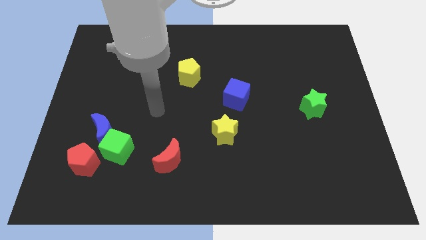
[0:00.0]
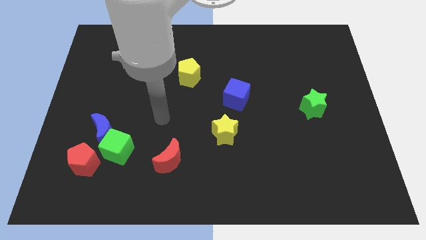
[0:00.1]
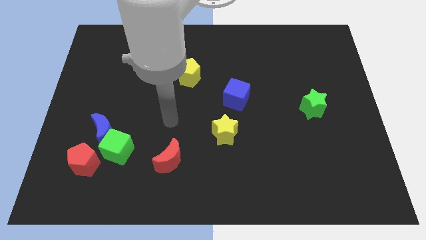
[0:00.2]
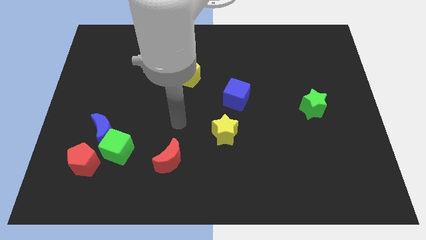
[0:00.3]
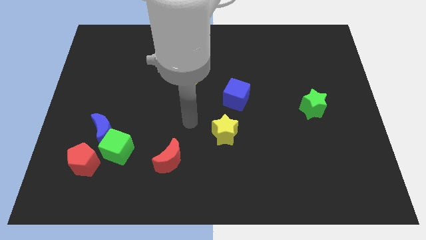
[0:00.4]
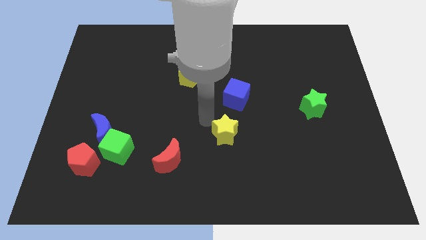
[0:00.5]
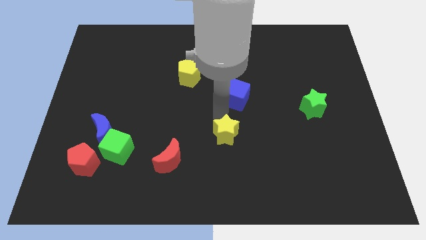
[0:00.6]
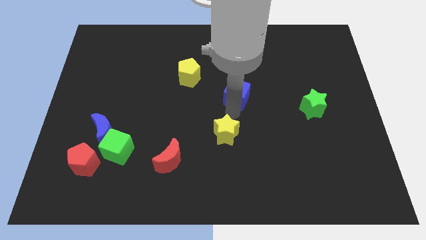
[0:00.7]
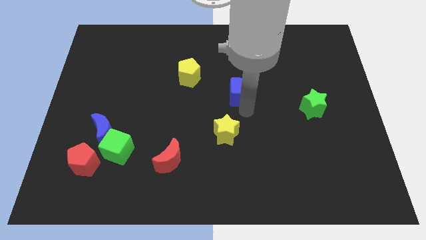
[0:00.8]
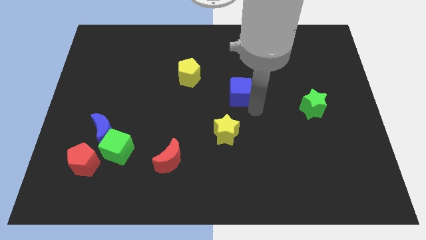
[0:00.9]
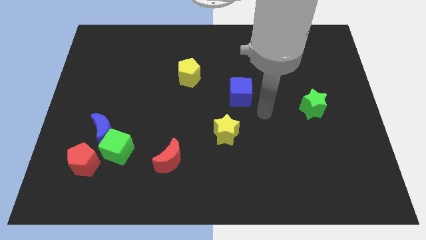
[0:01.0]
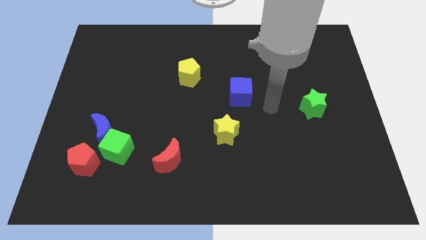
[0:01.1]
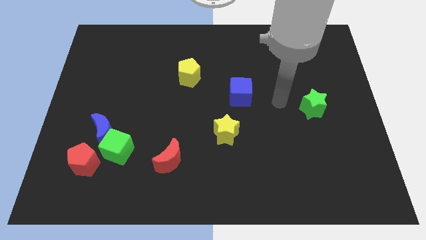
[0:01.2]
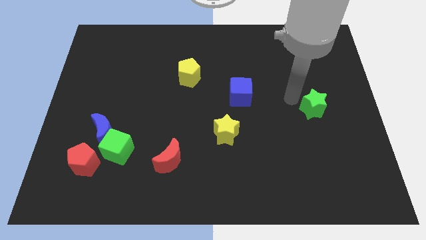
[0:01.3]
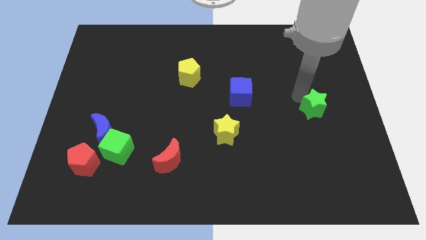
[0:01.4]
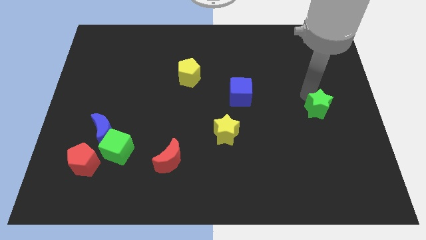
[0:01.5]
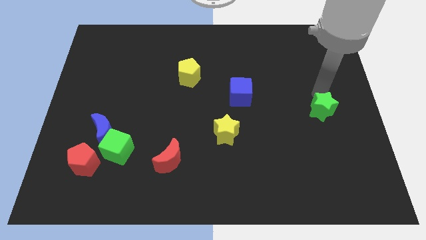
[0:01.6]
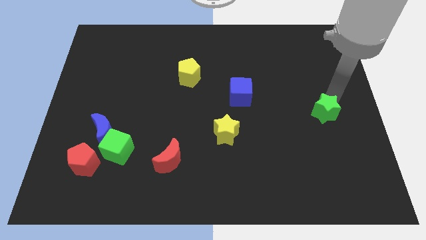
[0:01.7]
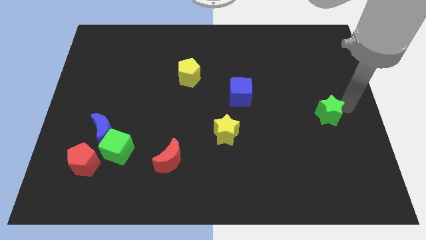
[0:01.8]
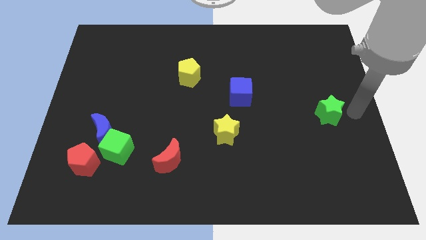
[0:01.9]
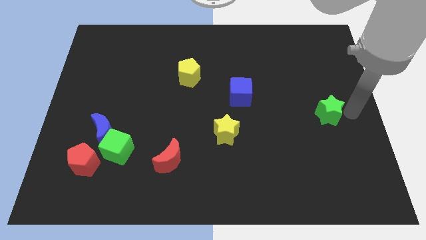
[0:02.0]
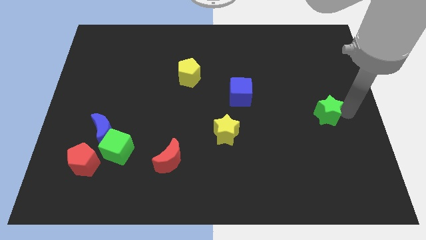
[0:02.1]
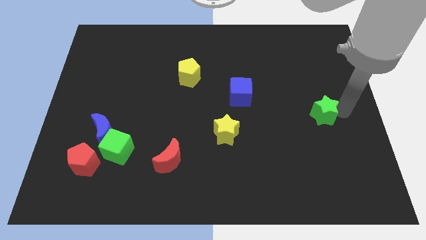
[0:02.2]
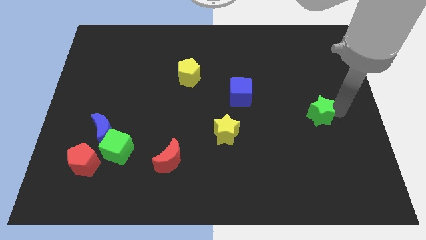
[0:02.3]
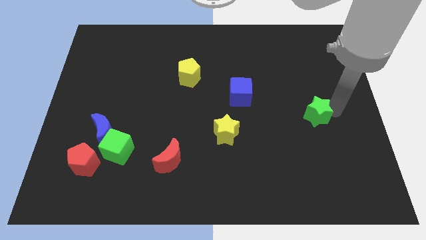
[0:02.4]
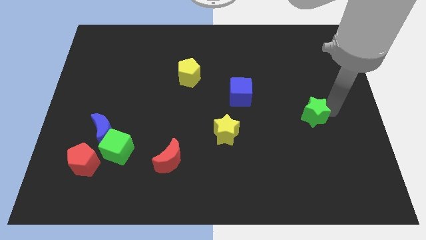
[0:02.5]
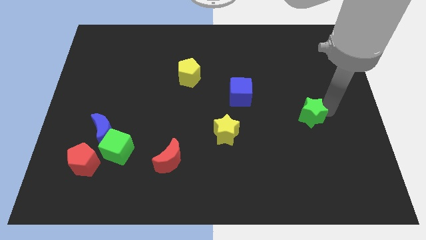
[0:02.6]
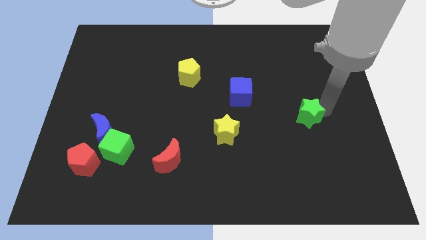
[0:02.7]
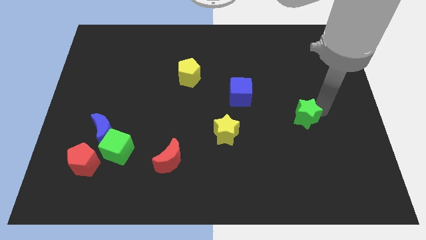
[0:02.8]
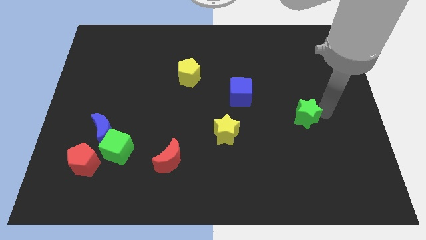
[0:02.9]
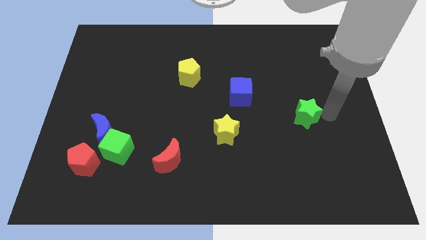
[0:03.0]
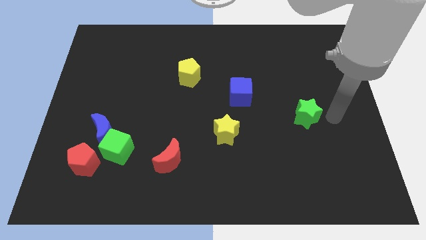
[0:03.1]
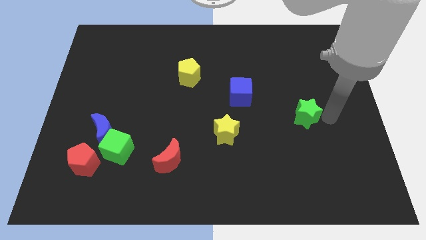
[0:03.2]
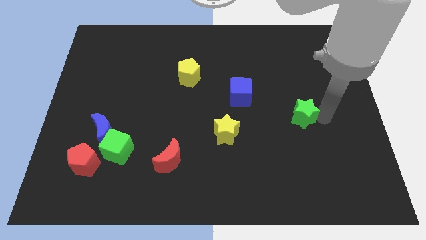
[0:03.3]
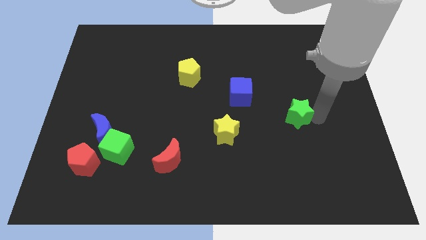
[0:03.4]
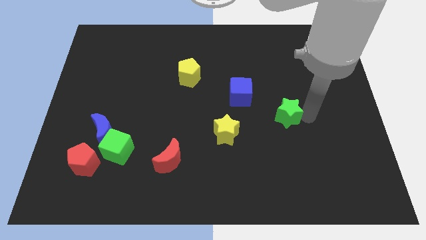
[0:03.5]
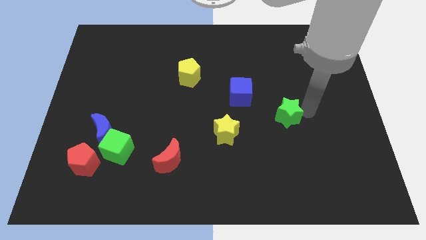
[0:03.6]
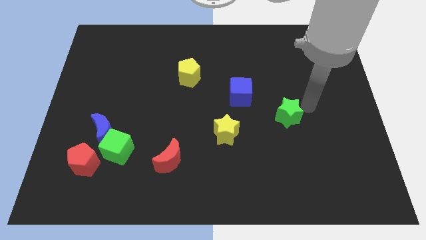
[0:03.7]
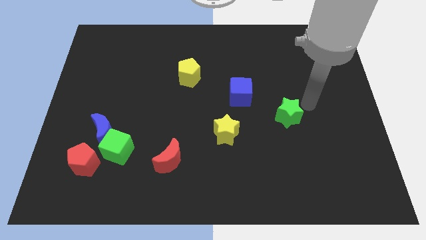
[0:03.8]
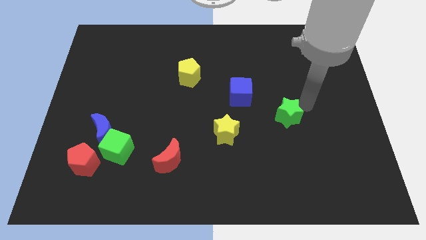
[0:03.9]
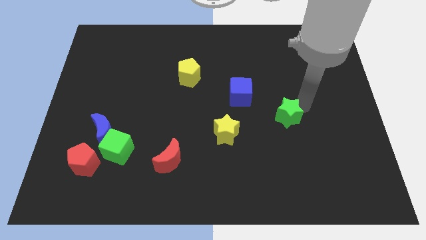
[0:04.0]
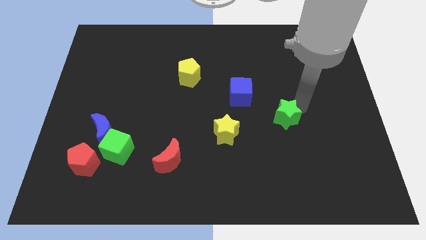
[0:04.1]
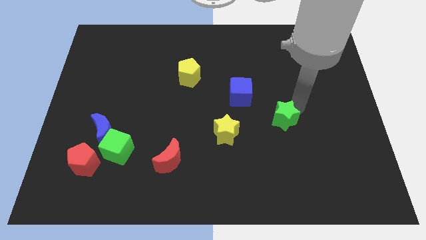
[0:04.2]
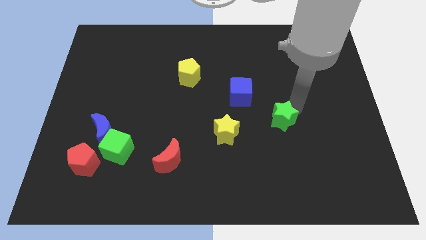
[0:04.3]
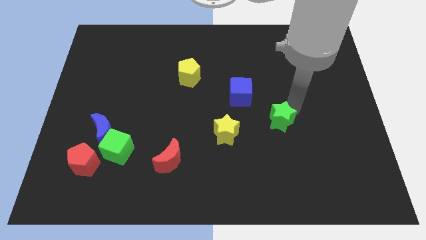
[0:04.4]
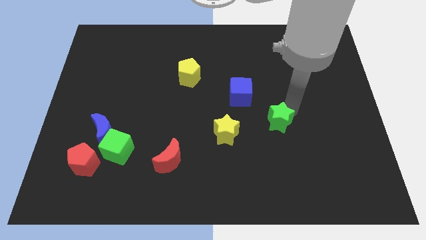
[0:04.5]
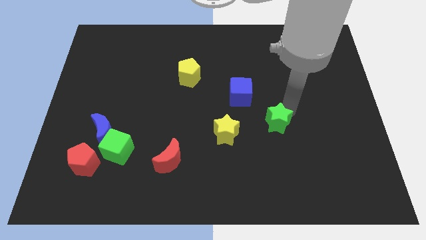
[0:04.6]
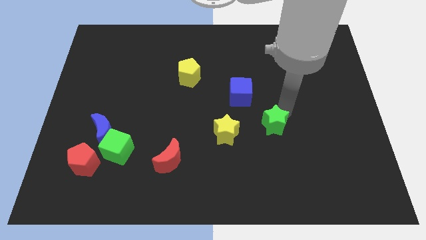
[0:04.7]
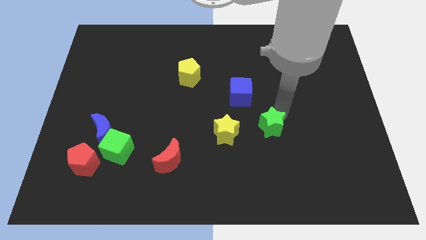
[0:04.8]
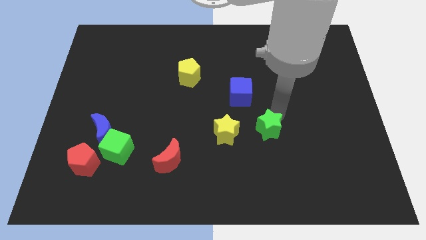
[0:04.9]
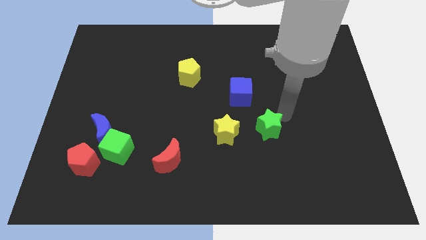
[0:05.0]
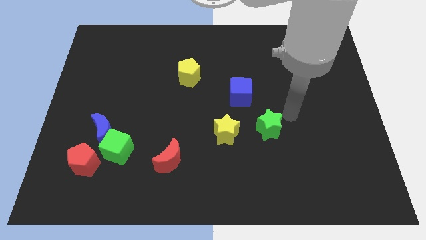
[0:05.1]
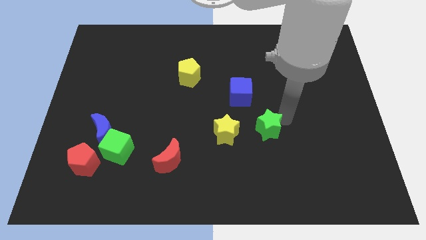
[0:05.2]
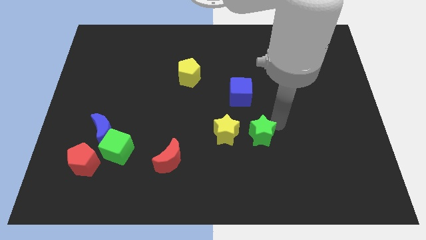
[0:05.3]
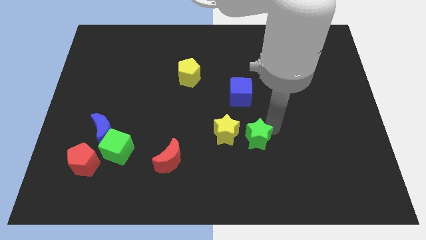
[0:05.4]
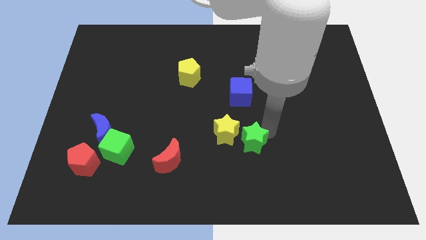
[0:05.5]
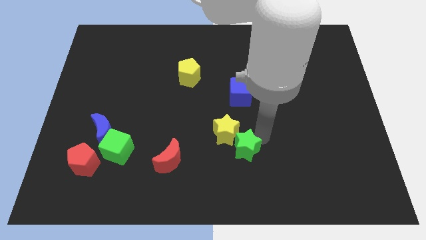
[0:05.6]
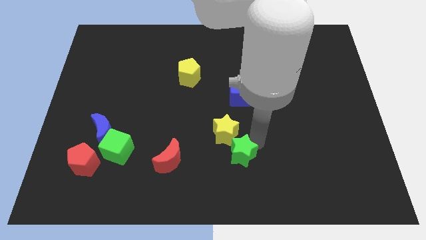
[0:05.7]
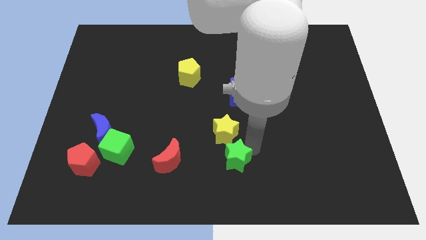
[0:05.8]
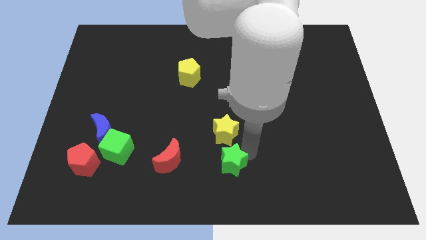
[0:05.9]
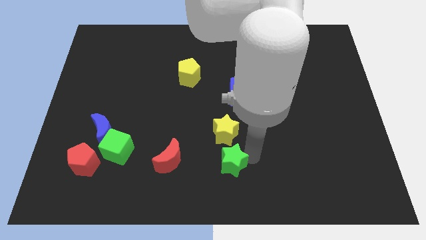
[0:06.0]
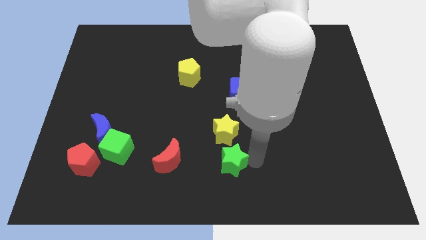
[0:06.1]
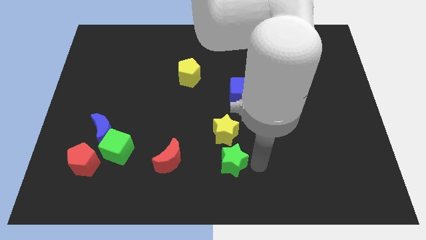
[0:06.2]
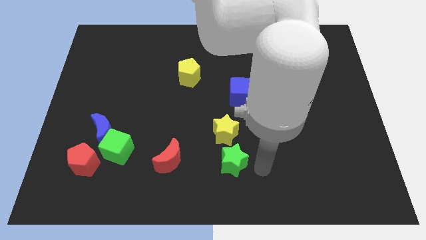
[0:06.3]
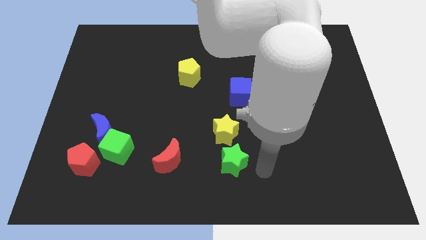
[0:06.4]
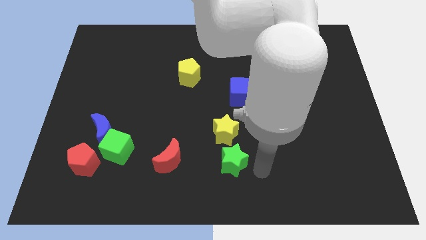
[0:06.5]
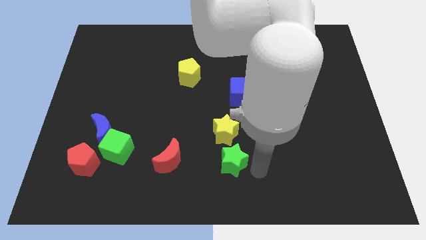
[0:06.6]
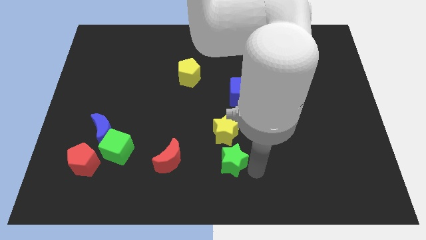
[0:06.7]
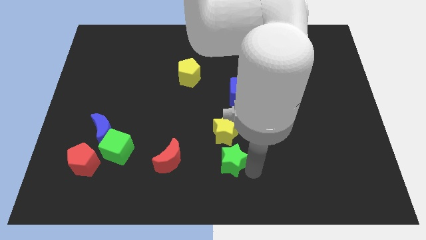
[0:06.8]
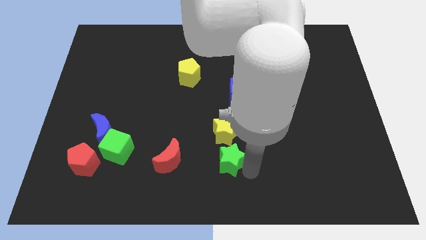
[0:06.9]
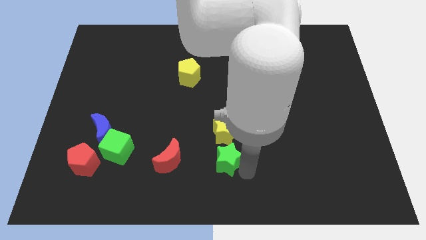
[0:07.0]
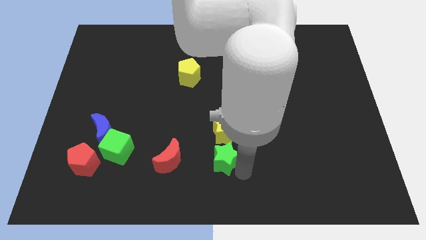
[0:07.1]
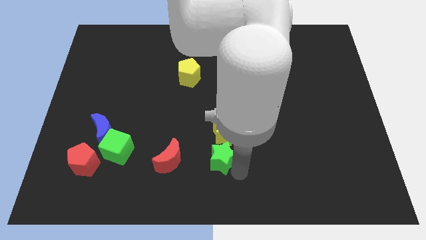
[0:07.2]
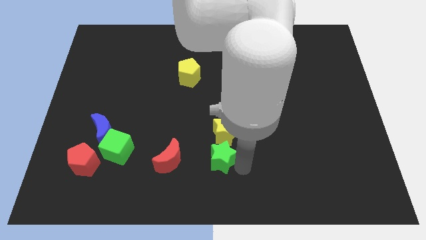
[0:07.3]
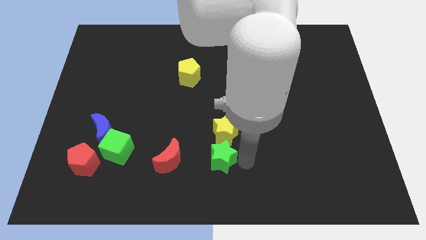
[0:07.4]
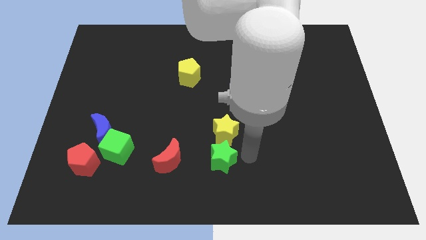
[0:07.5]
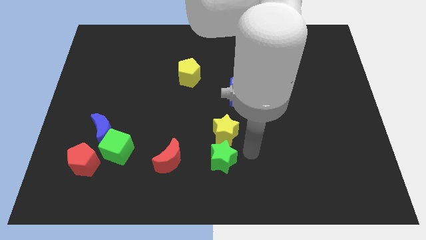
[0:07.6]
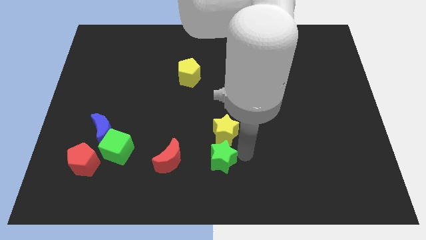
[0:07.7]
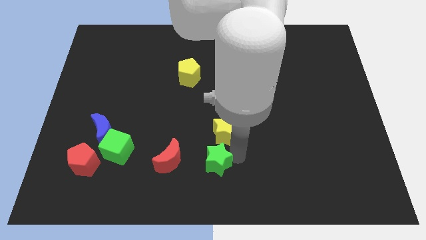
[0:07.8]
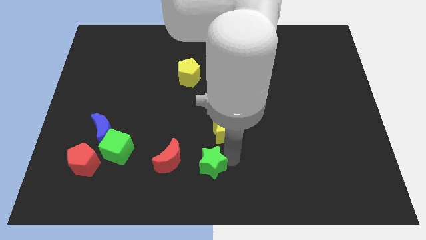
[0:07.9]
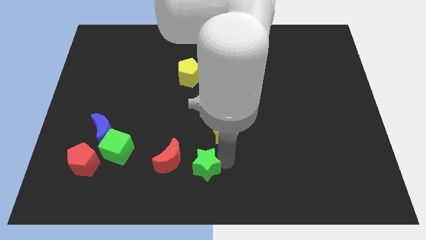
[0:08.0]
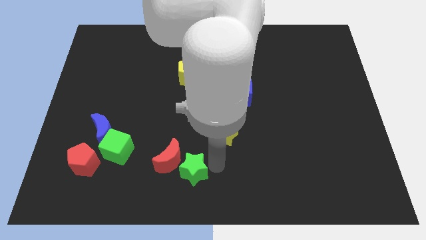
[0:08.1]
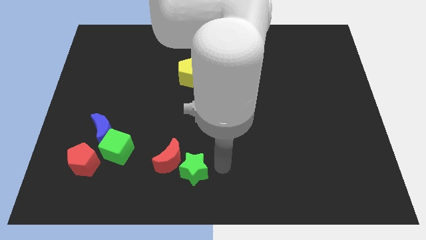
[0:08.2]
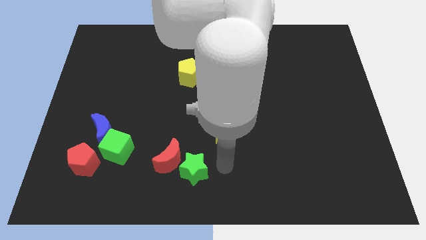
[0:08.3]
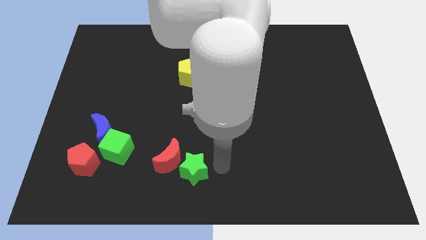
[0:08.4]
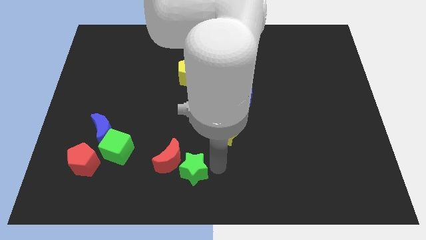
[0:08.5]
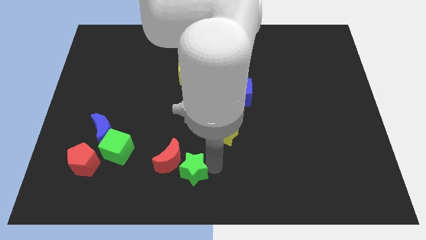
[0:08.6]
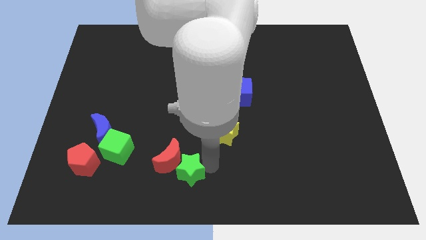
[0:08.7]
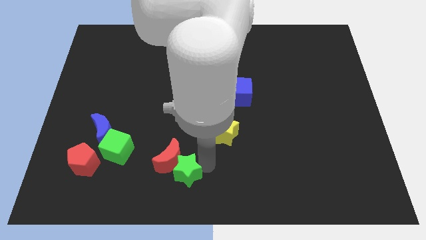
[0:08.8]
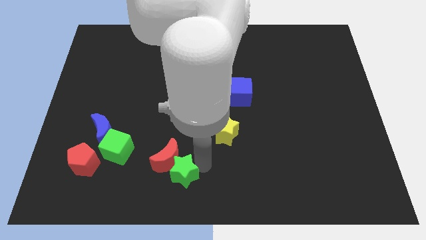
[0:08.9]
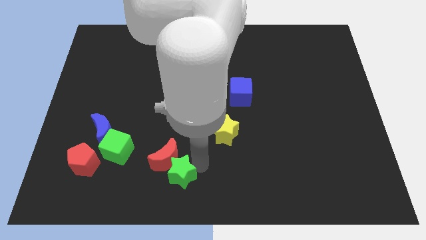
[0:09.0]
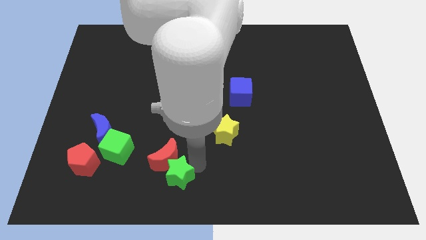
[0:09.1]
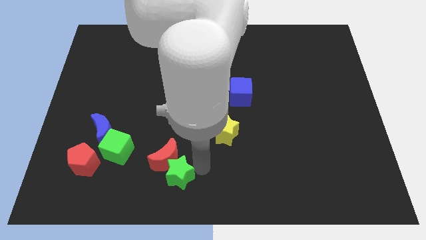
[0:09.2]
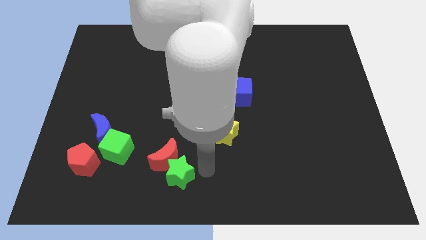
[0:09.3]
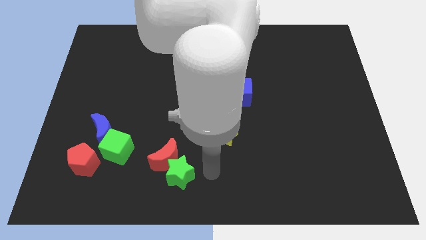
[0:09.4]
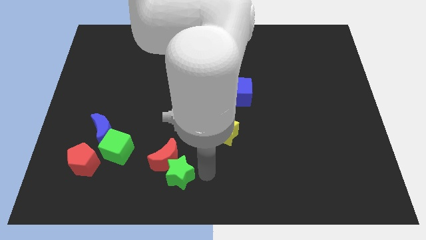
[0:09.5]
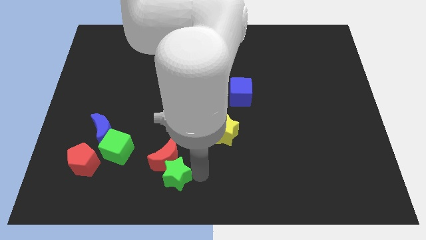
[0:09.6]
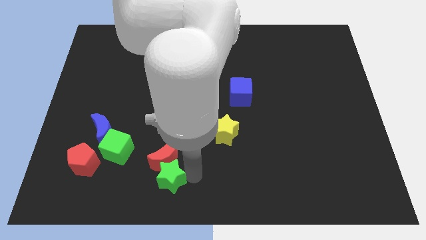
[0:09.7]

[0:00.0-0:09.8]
slide the green star to the bottom left of the red moon
